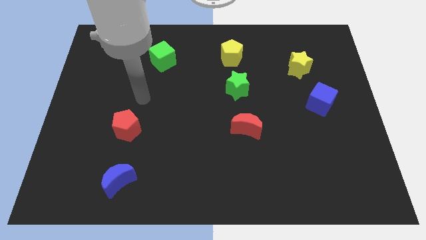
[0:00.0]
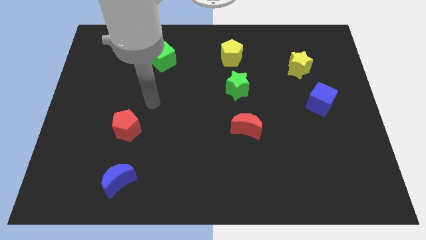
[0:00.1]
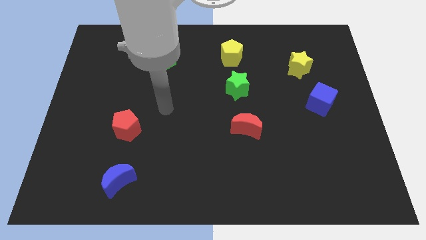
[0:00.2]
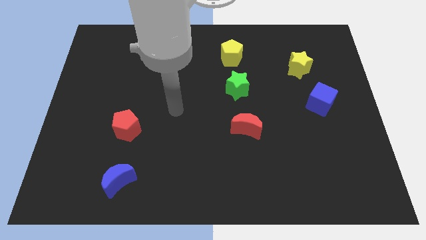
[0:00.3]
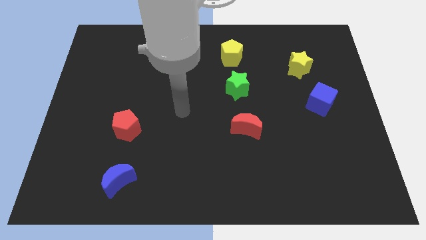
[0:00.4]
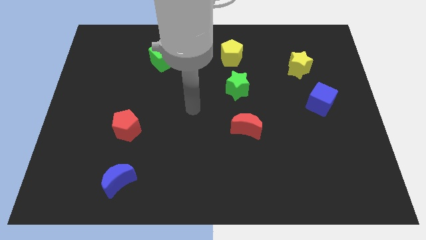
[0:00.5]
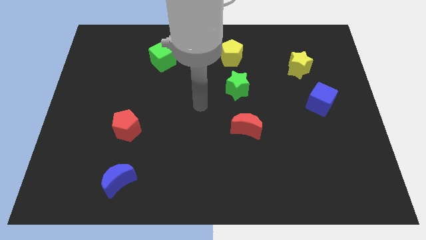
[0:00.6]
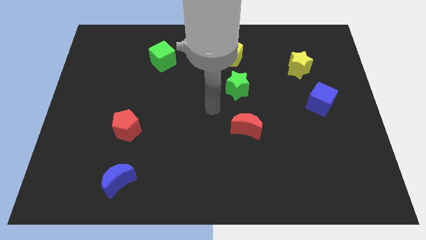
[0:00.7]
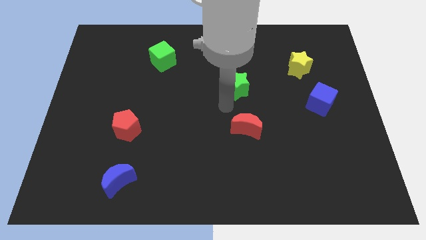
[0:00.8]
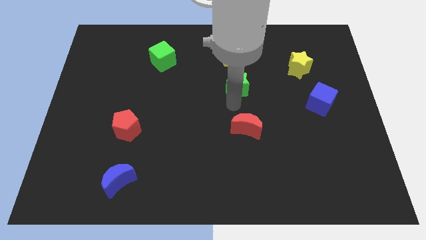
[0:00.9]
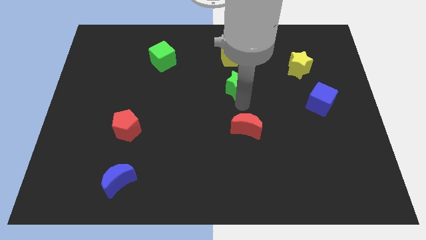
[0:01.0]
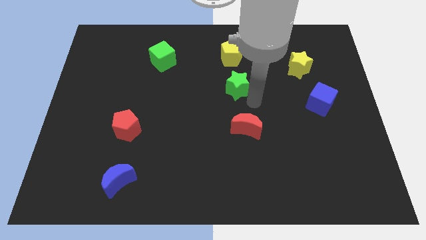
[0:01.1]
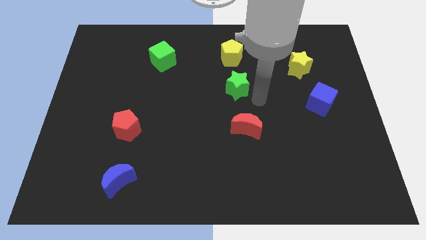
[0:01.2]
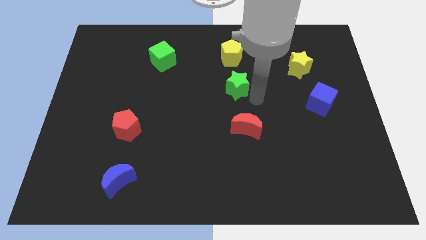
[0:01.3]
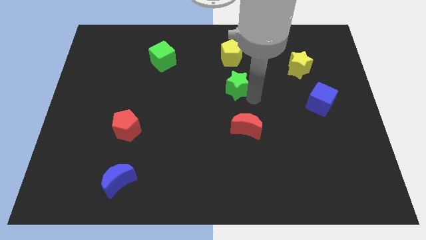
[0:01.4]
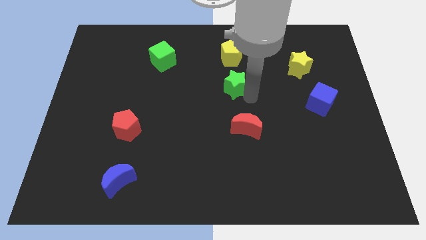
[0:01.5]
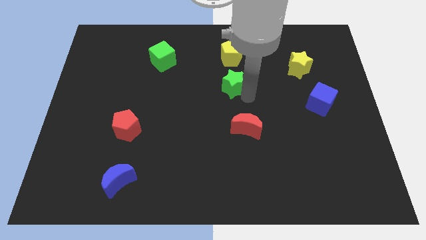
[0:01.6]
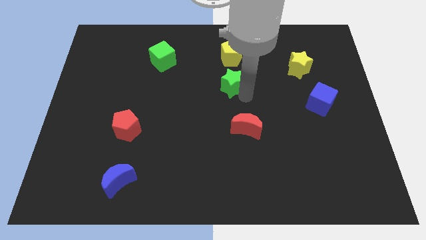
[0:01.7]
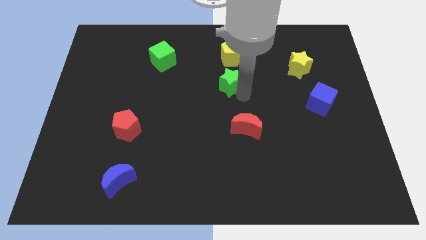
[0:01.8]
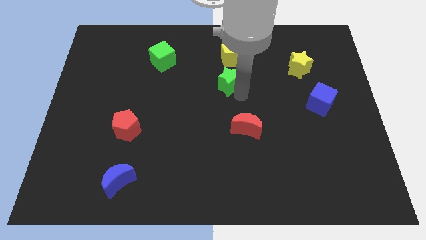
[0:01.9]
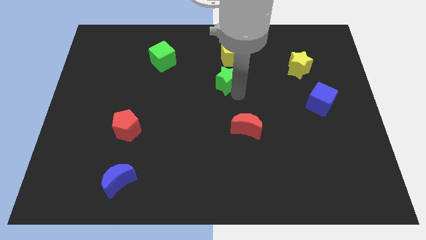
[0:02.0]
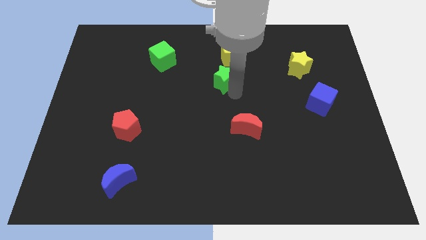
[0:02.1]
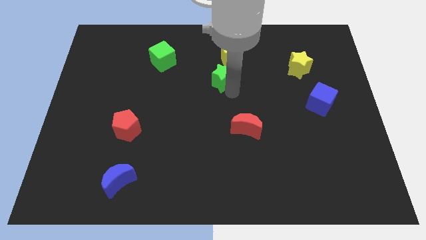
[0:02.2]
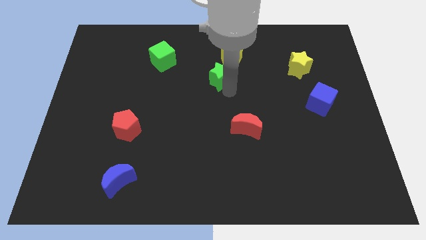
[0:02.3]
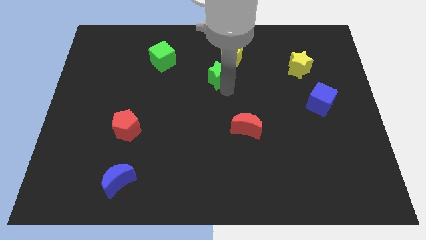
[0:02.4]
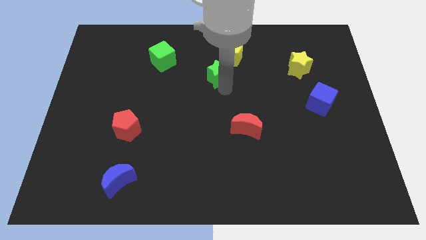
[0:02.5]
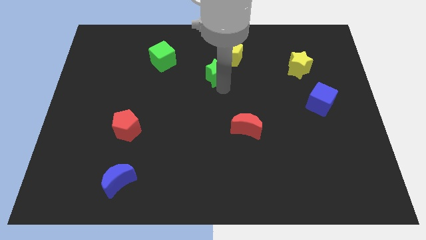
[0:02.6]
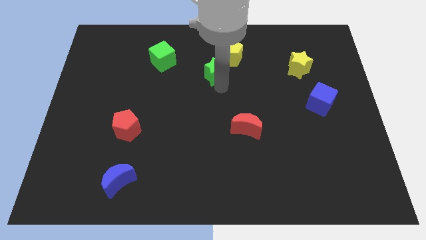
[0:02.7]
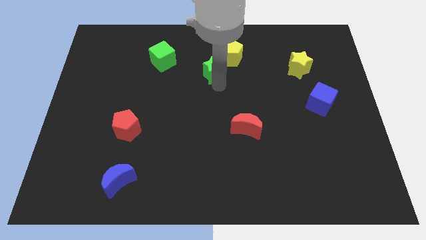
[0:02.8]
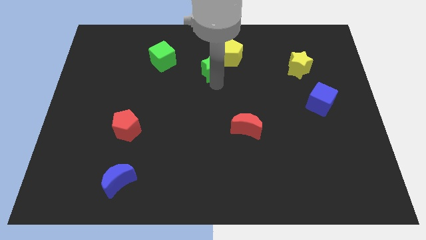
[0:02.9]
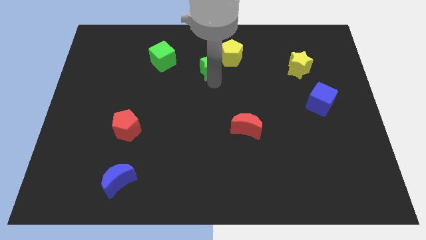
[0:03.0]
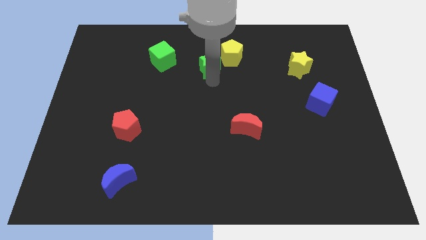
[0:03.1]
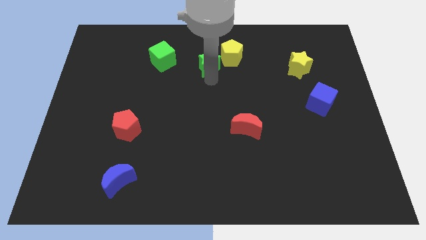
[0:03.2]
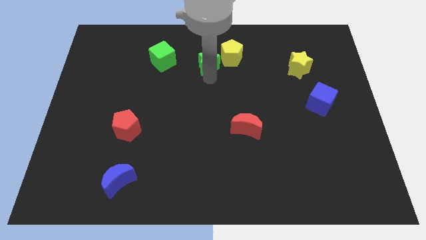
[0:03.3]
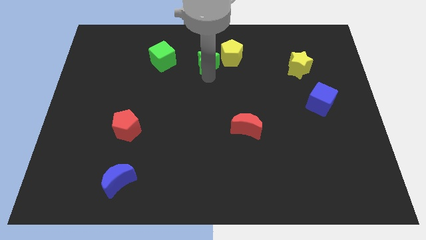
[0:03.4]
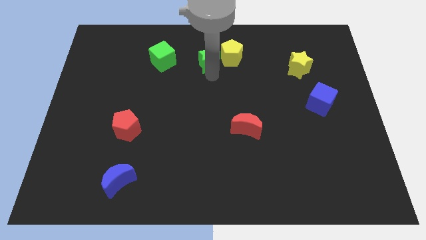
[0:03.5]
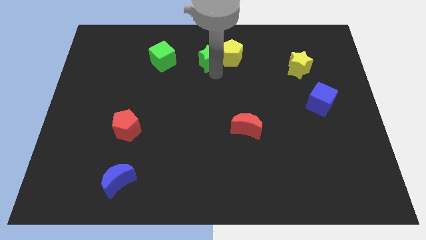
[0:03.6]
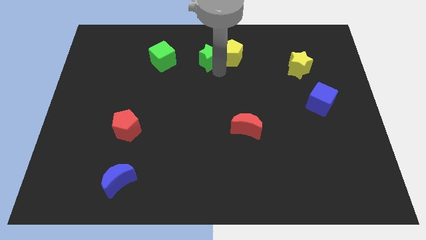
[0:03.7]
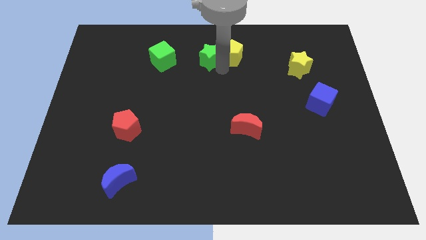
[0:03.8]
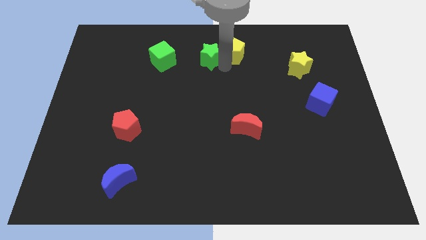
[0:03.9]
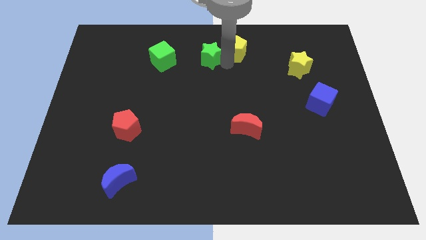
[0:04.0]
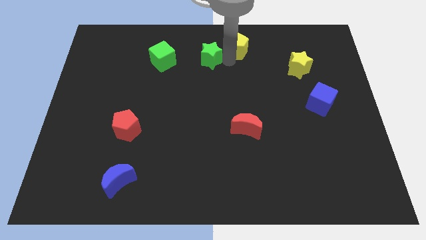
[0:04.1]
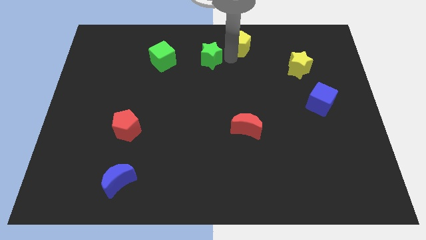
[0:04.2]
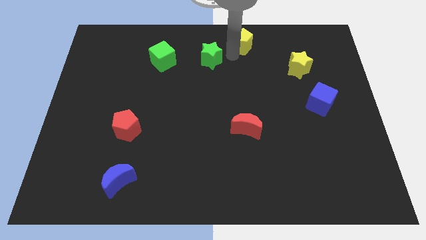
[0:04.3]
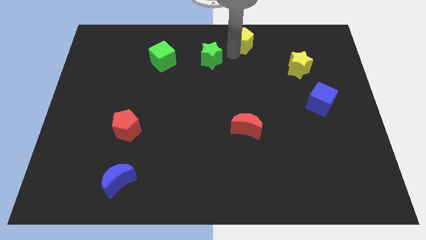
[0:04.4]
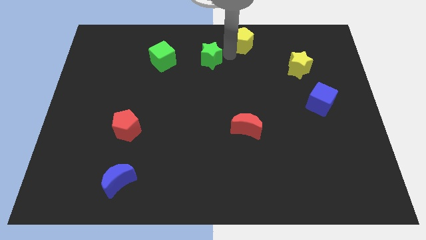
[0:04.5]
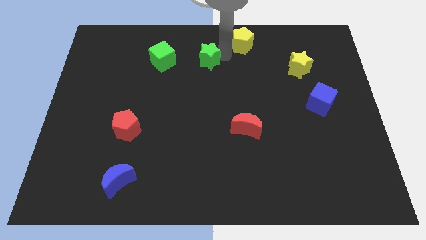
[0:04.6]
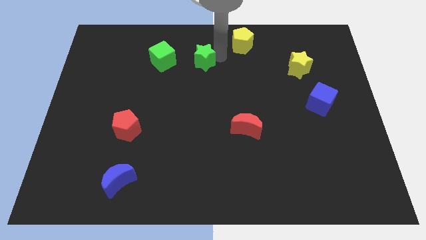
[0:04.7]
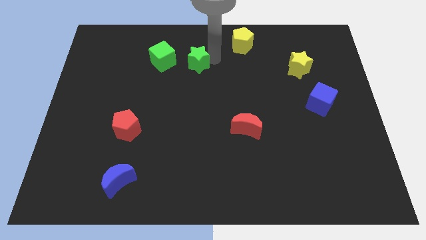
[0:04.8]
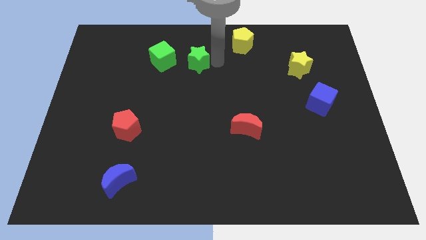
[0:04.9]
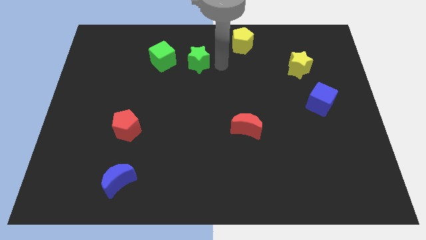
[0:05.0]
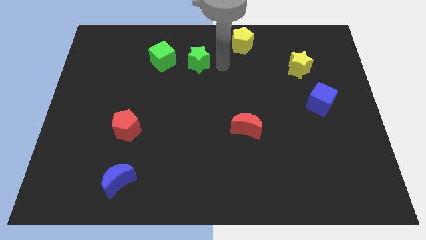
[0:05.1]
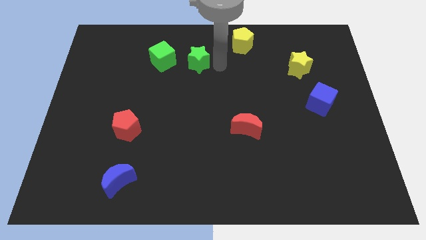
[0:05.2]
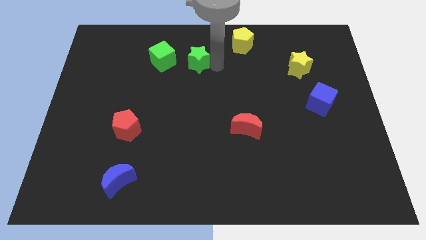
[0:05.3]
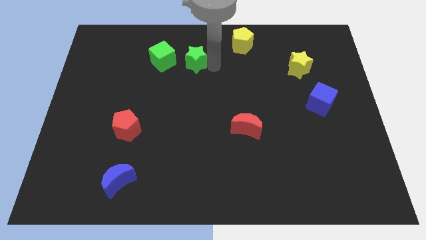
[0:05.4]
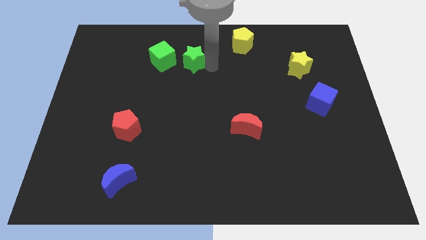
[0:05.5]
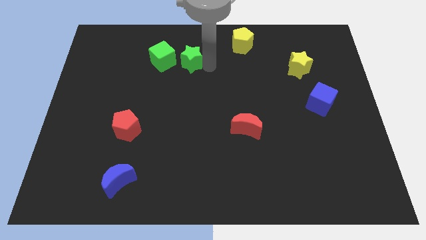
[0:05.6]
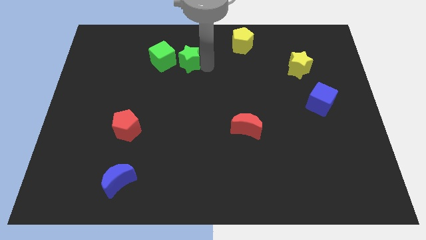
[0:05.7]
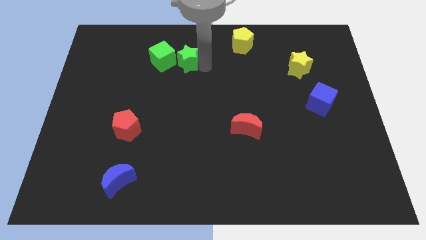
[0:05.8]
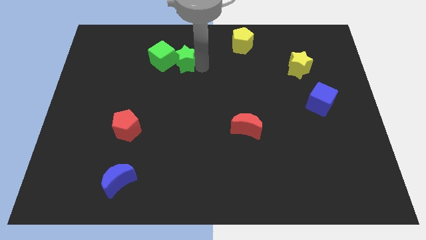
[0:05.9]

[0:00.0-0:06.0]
put the green star to the green cube
